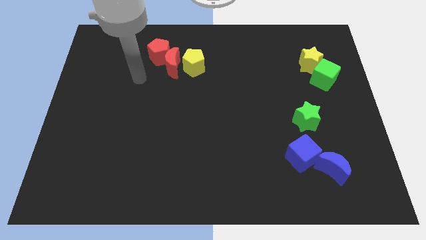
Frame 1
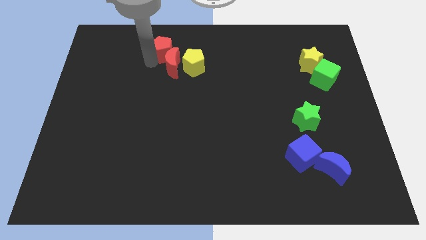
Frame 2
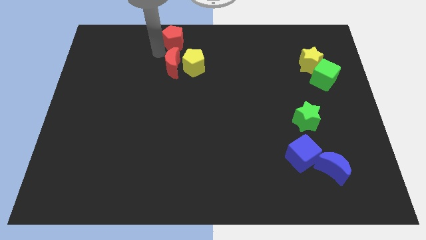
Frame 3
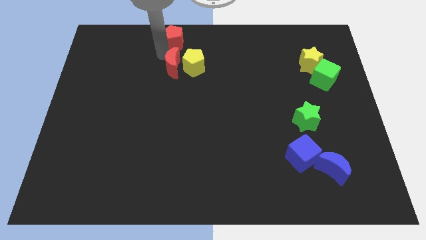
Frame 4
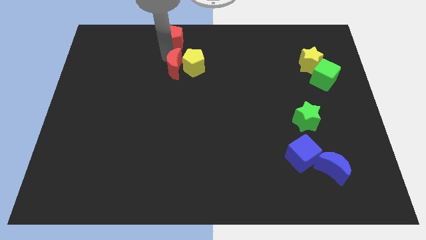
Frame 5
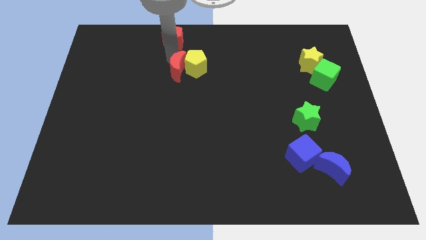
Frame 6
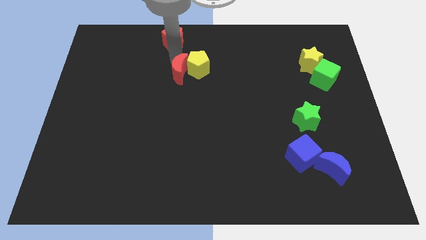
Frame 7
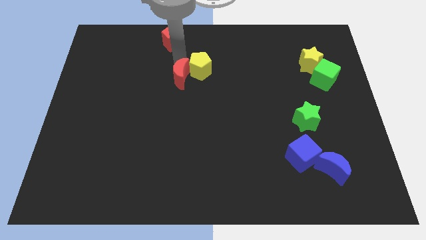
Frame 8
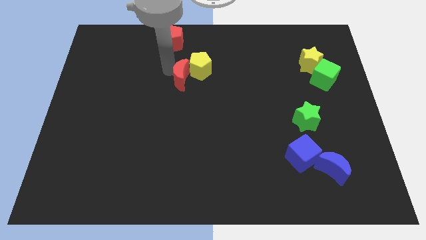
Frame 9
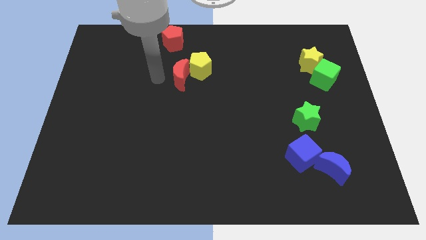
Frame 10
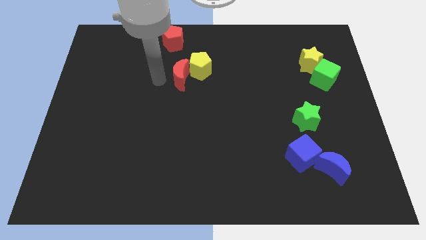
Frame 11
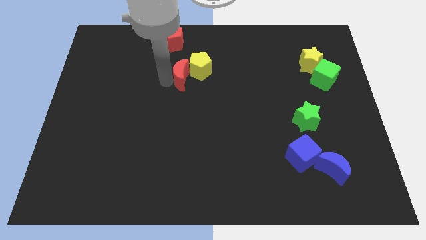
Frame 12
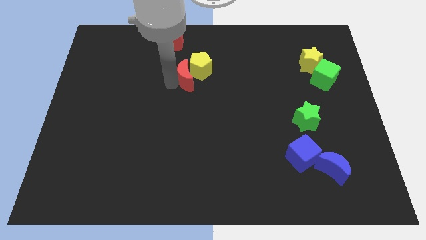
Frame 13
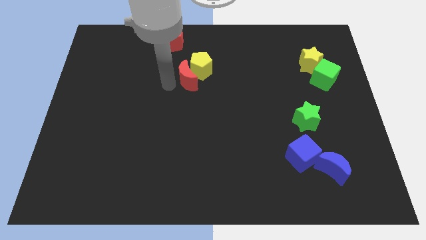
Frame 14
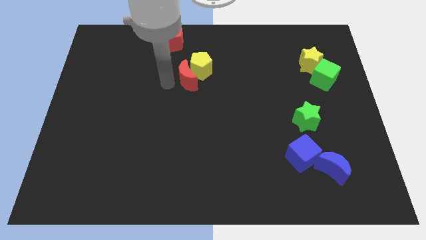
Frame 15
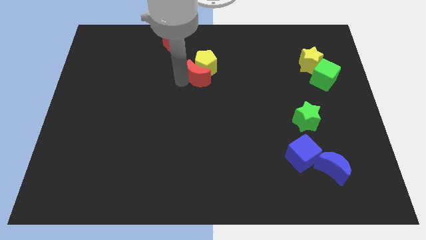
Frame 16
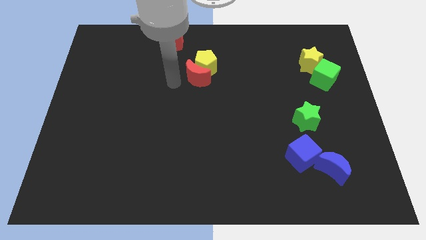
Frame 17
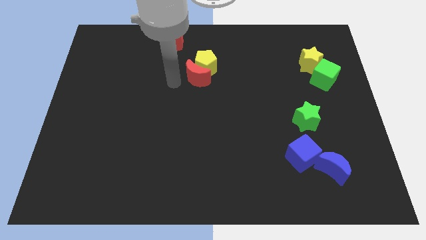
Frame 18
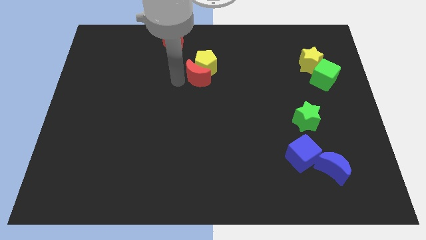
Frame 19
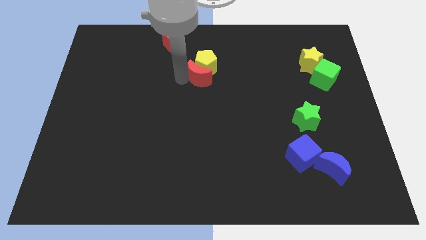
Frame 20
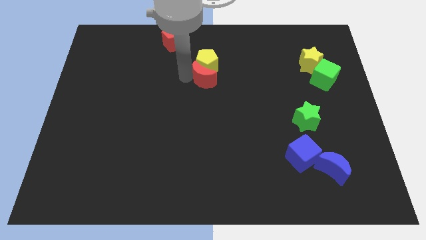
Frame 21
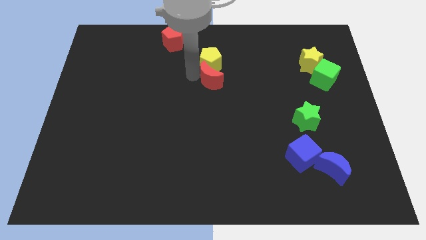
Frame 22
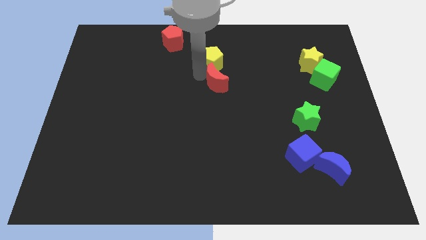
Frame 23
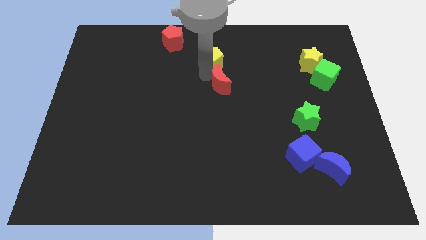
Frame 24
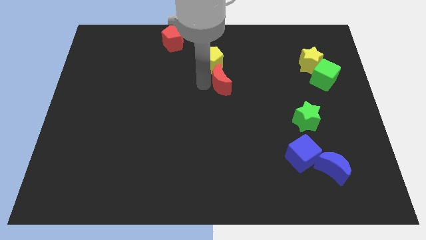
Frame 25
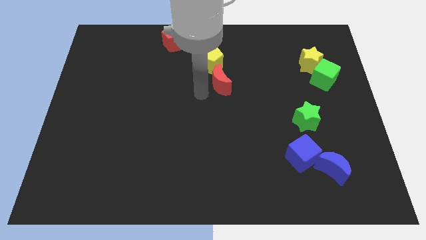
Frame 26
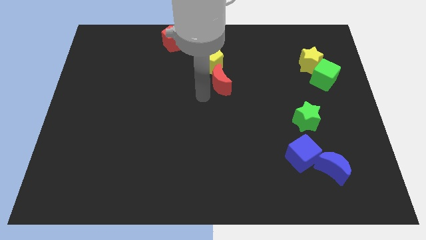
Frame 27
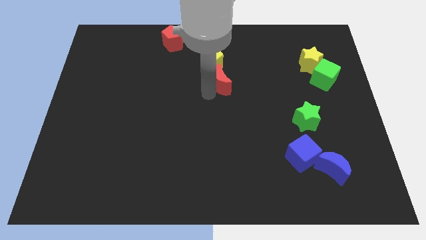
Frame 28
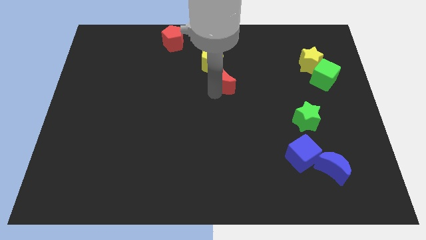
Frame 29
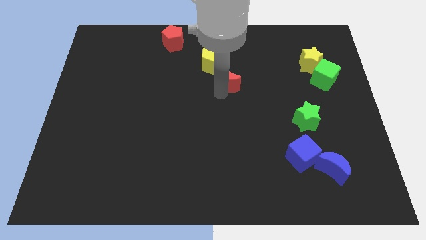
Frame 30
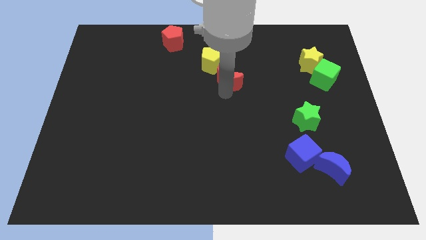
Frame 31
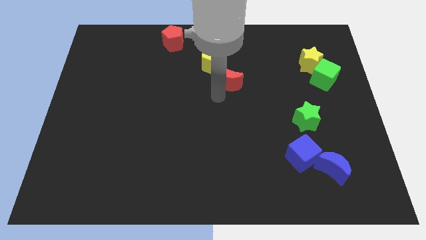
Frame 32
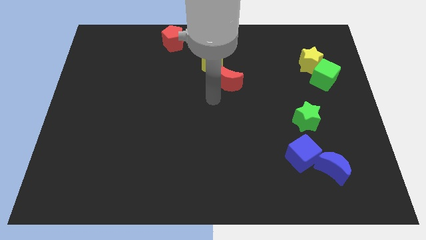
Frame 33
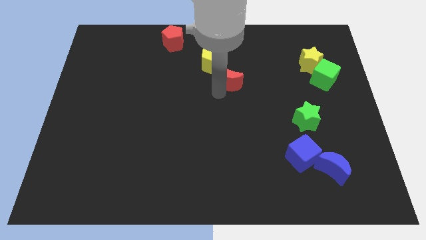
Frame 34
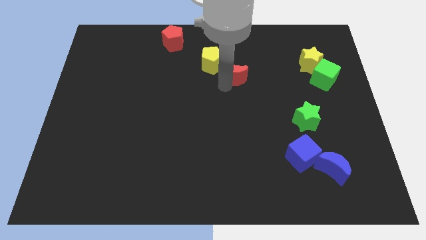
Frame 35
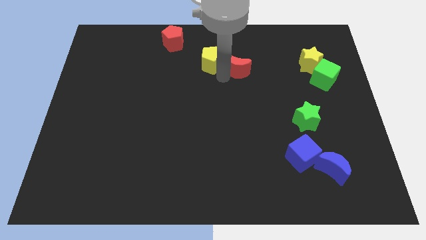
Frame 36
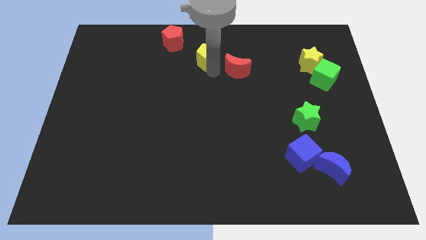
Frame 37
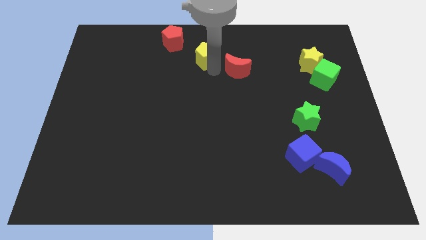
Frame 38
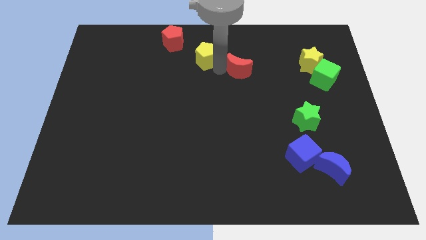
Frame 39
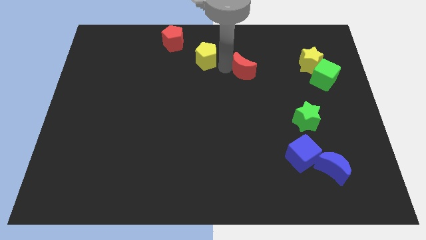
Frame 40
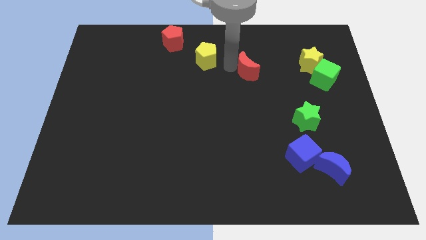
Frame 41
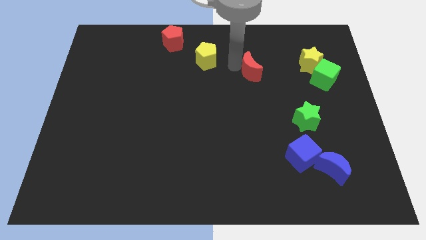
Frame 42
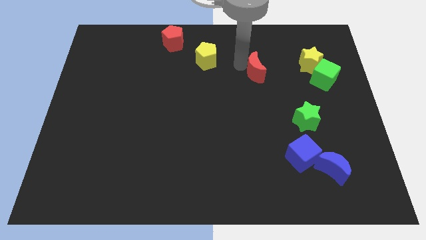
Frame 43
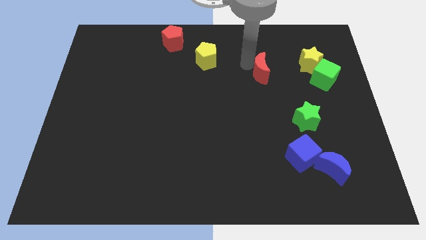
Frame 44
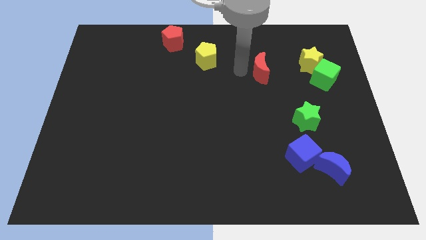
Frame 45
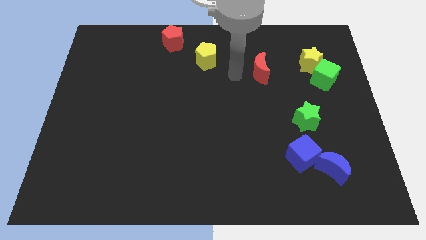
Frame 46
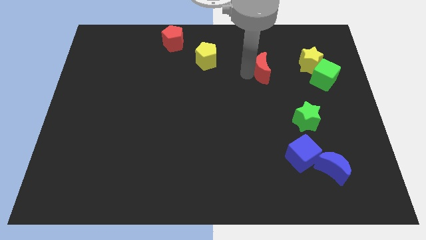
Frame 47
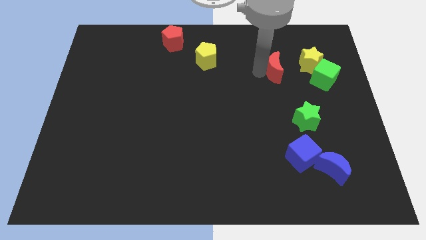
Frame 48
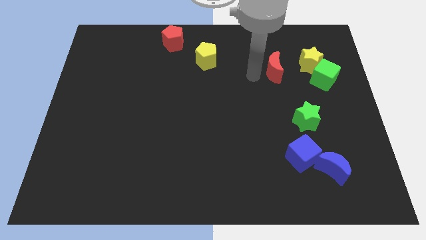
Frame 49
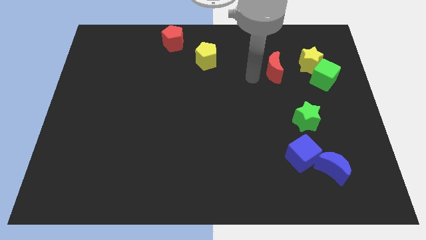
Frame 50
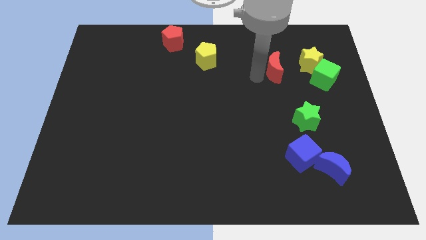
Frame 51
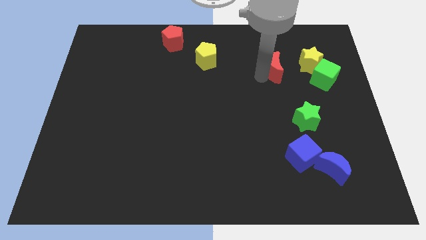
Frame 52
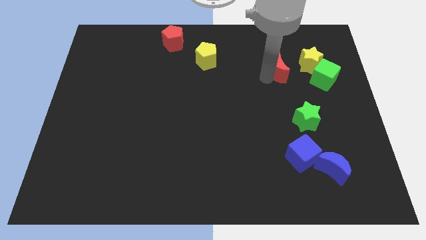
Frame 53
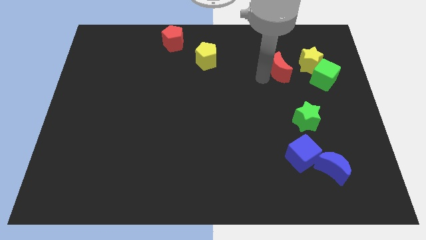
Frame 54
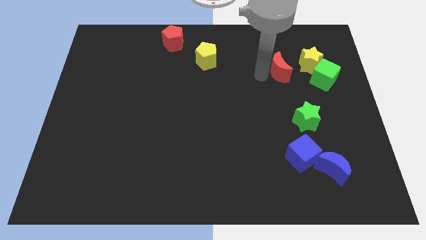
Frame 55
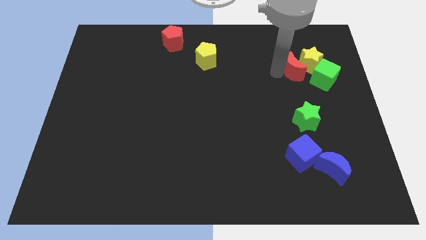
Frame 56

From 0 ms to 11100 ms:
move the red moon towards the yellow star

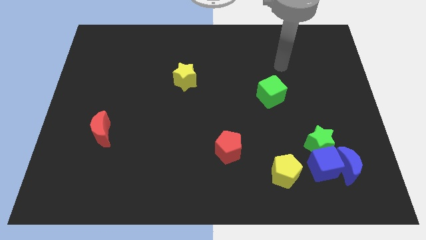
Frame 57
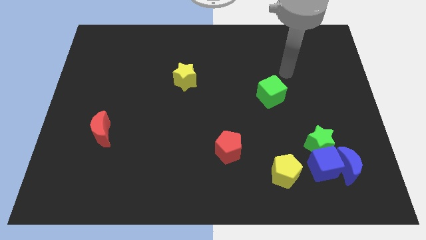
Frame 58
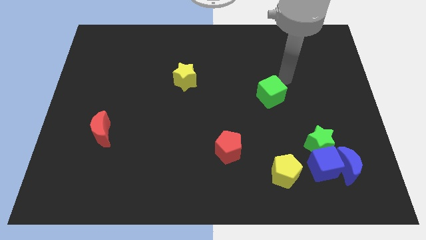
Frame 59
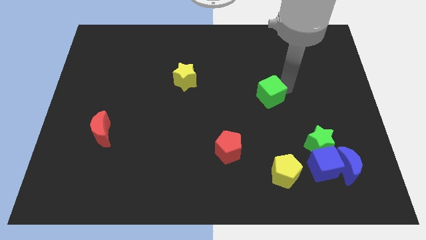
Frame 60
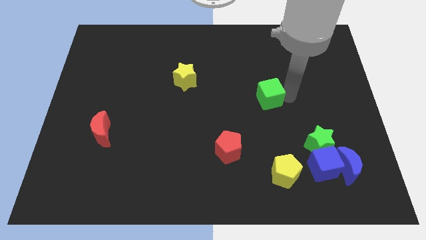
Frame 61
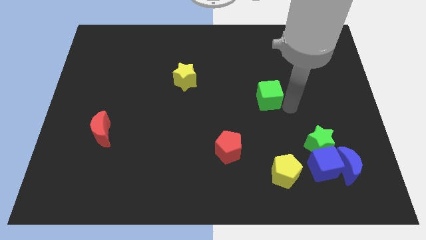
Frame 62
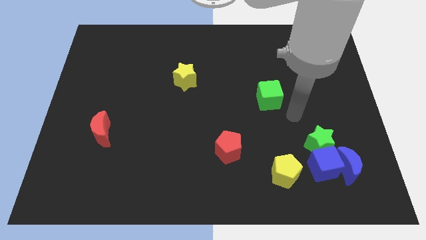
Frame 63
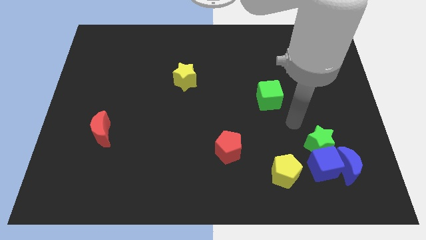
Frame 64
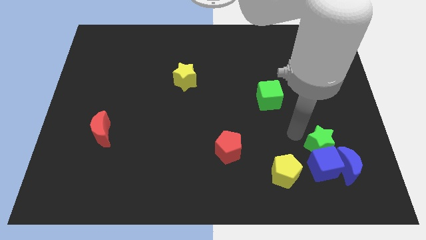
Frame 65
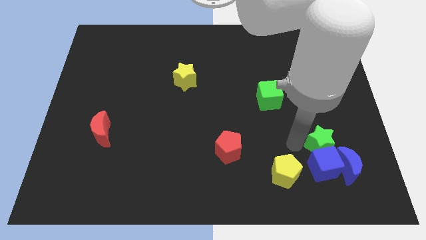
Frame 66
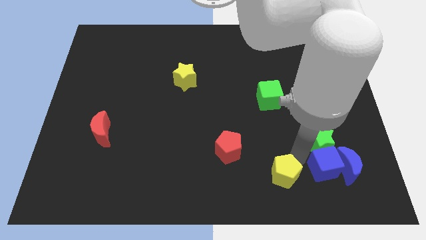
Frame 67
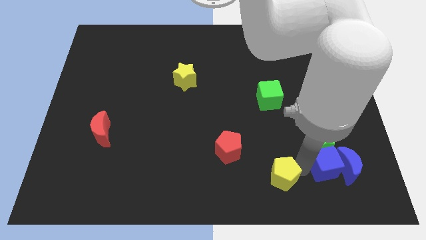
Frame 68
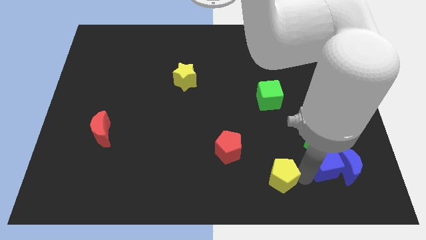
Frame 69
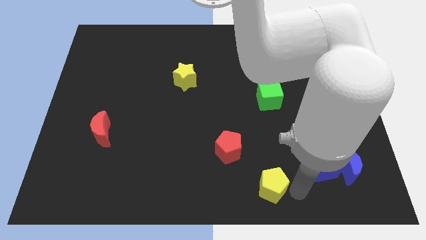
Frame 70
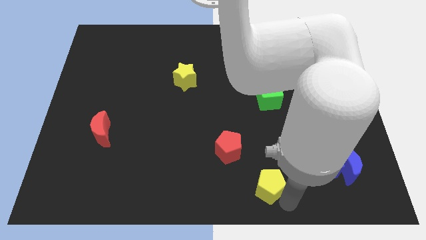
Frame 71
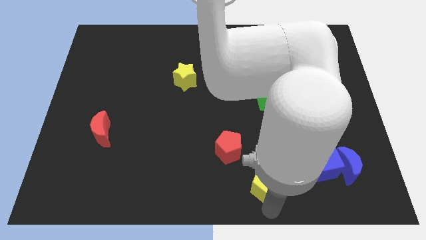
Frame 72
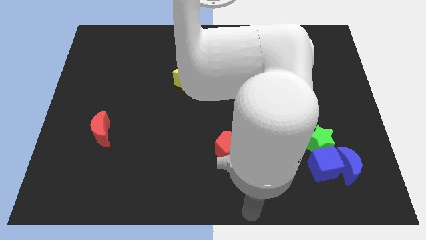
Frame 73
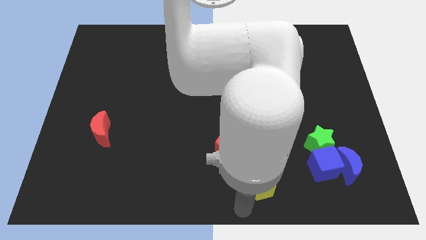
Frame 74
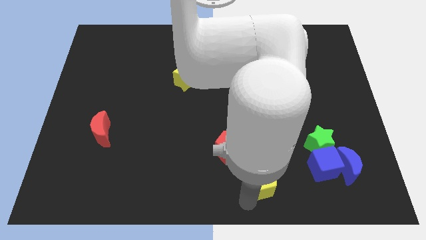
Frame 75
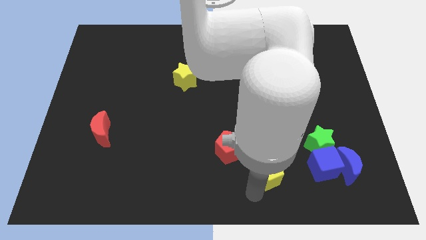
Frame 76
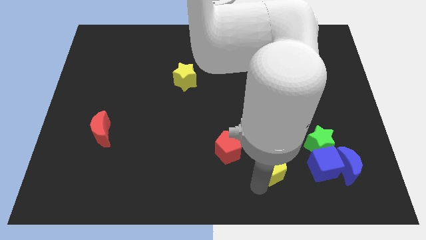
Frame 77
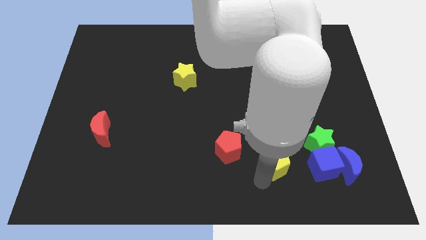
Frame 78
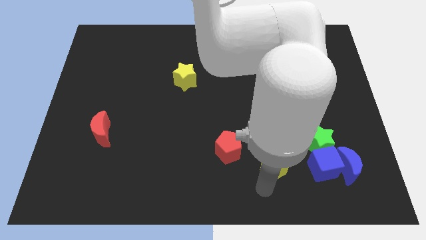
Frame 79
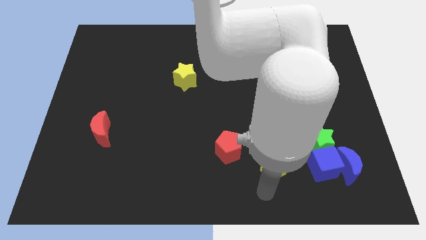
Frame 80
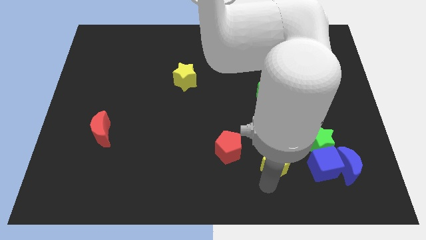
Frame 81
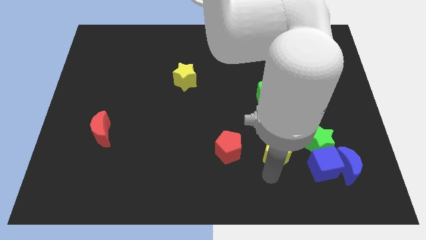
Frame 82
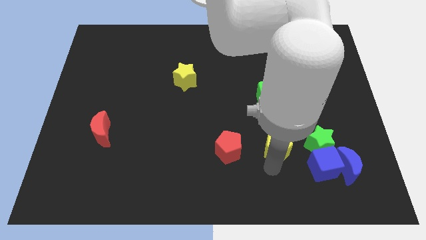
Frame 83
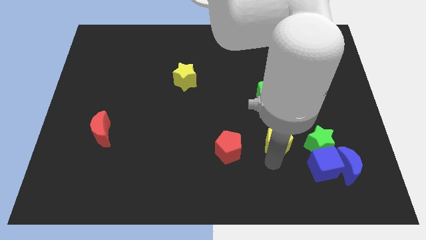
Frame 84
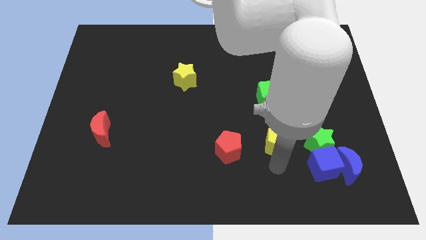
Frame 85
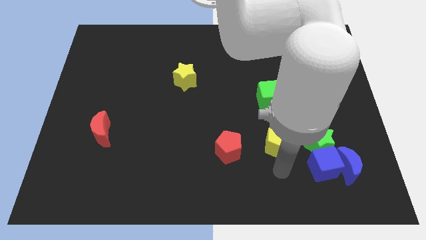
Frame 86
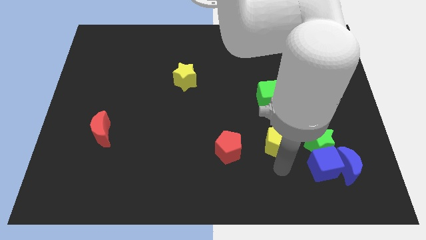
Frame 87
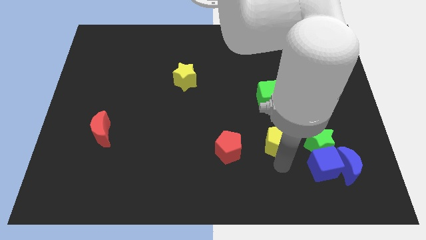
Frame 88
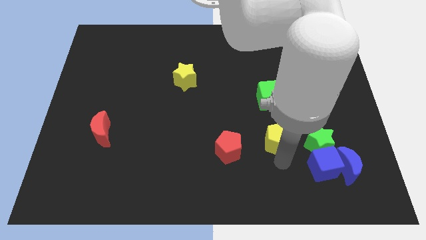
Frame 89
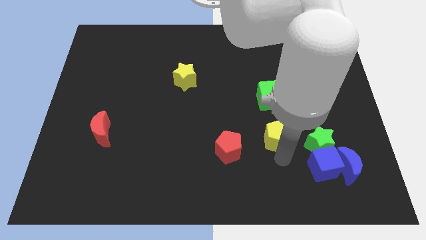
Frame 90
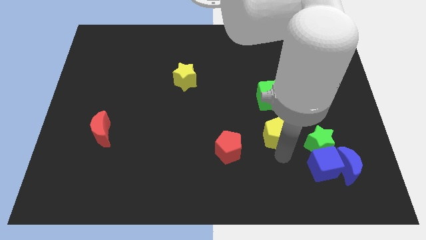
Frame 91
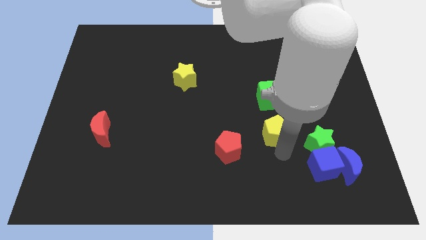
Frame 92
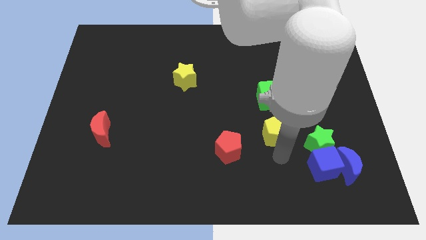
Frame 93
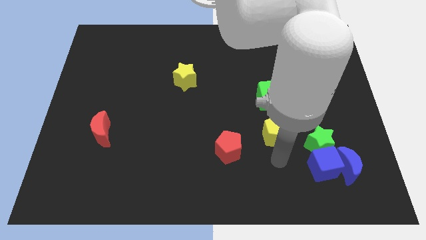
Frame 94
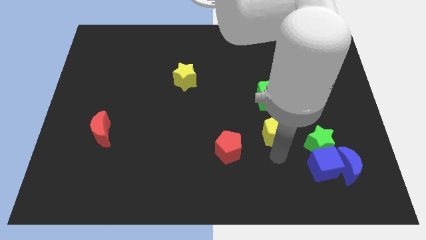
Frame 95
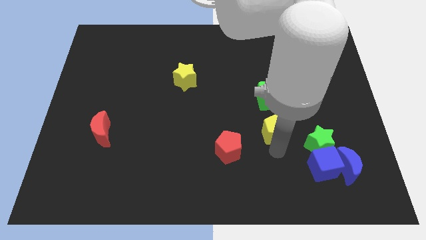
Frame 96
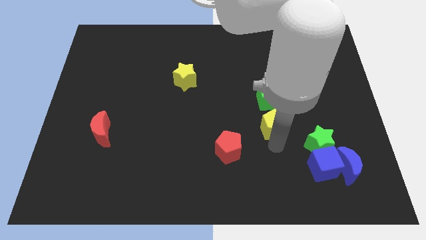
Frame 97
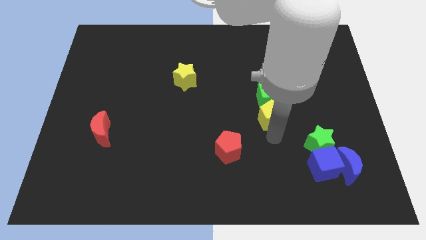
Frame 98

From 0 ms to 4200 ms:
push the yellow pentagon towards the green cube
